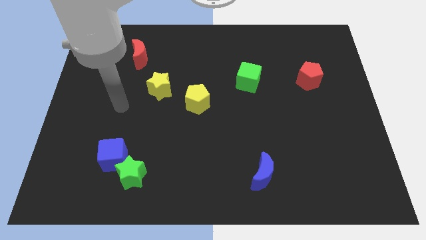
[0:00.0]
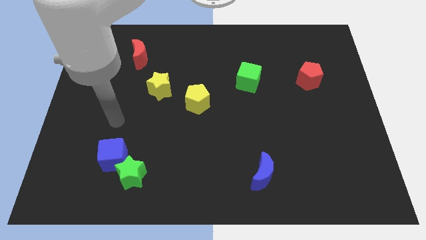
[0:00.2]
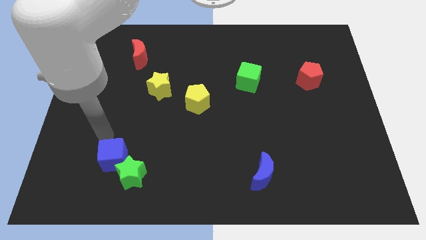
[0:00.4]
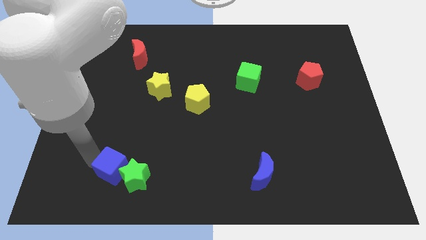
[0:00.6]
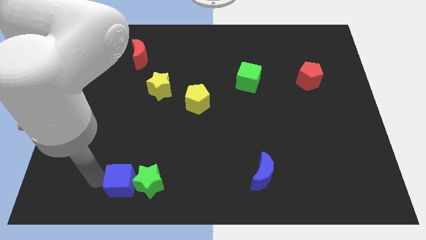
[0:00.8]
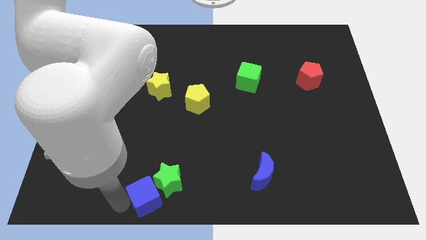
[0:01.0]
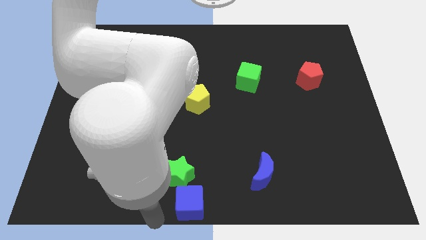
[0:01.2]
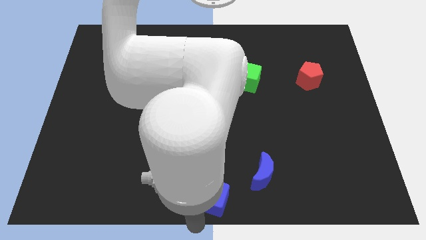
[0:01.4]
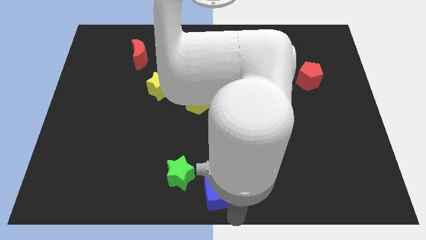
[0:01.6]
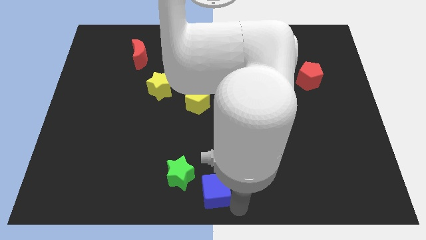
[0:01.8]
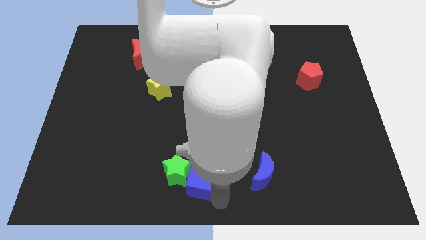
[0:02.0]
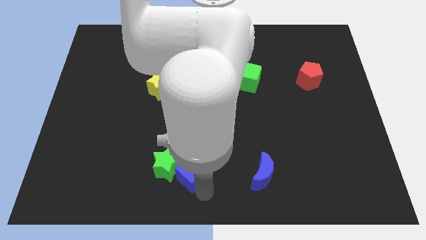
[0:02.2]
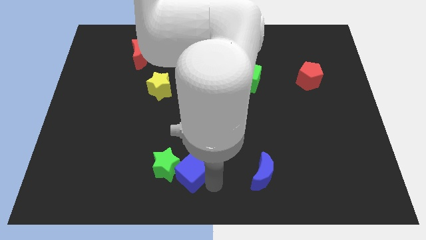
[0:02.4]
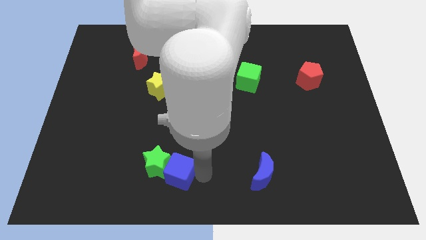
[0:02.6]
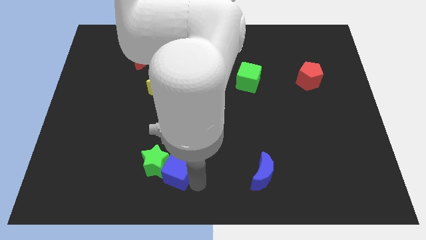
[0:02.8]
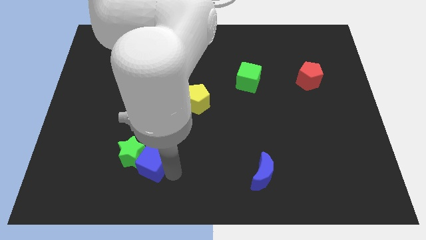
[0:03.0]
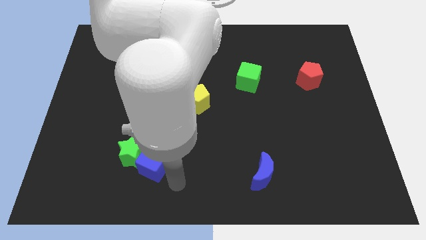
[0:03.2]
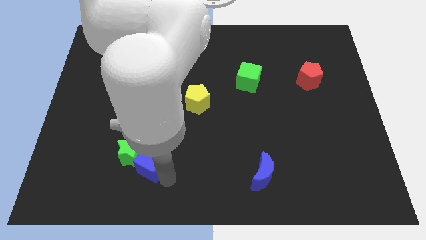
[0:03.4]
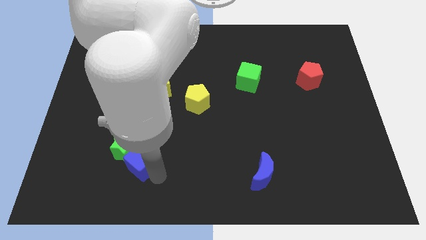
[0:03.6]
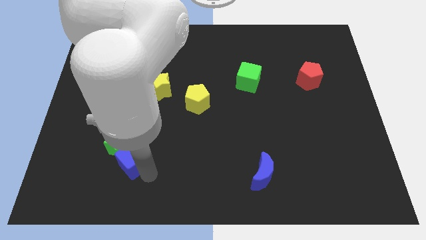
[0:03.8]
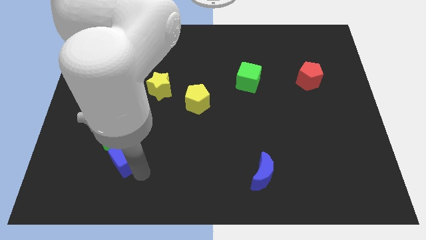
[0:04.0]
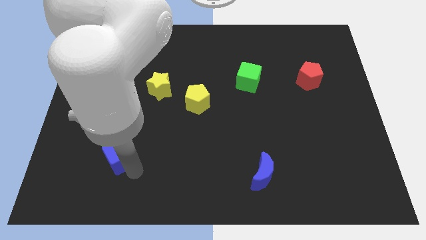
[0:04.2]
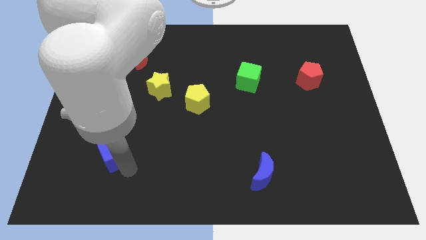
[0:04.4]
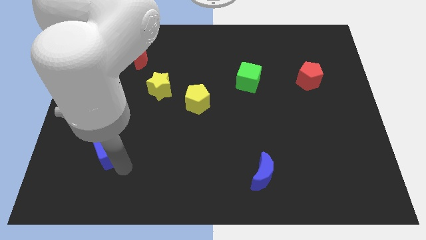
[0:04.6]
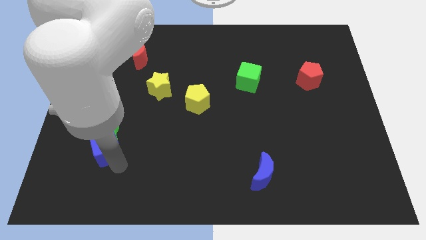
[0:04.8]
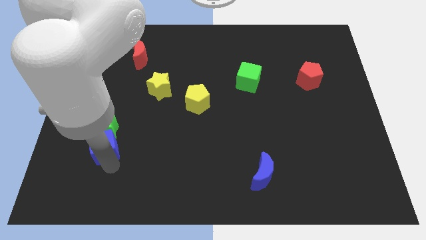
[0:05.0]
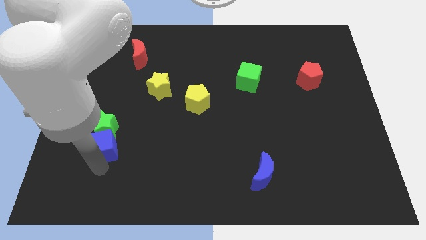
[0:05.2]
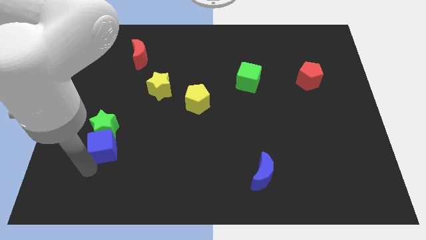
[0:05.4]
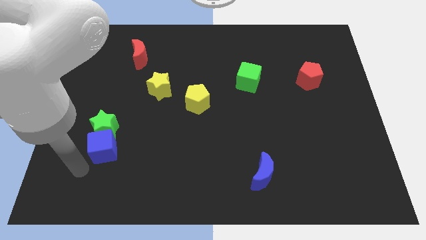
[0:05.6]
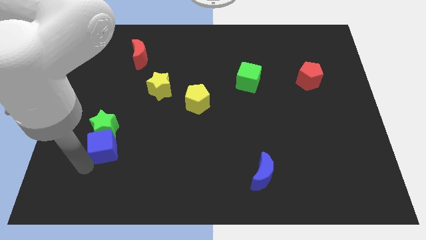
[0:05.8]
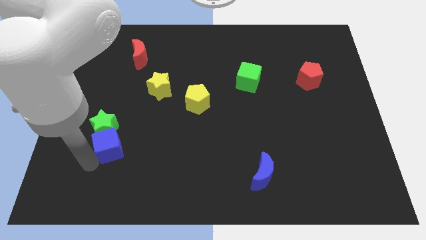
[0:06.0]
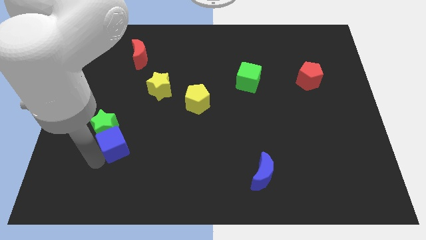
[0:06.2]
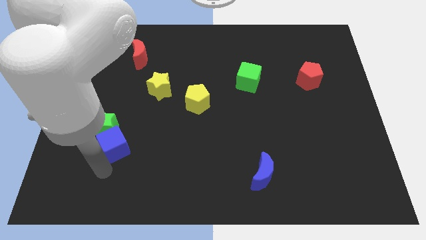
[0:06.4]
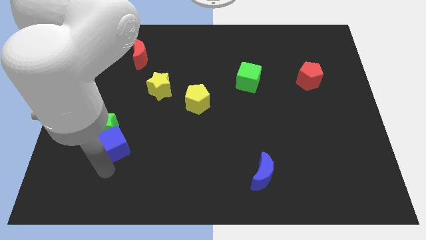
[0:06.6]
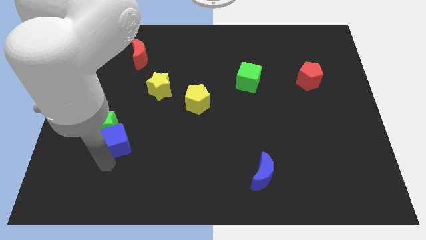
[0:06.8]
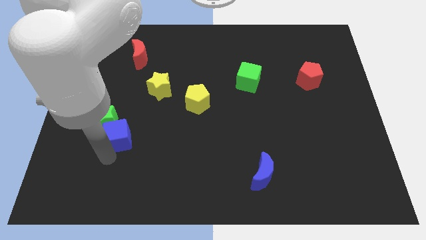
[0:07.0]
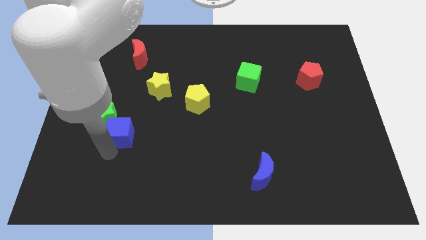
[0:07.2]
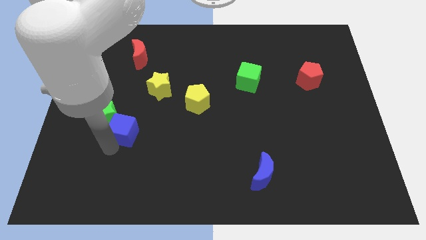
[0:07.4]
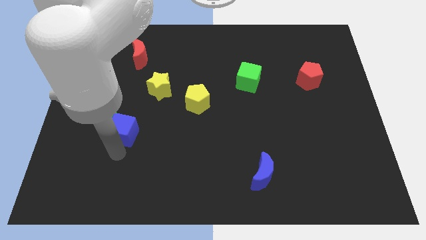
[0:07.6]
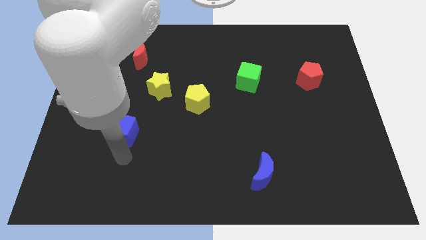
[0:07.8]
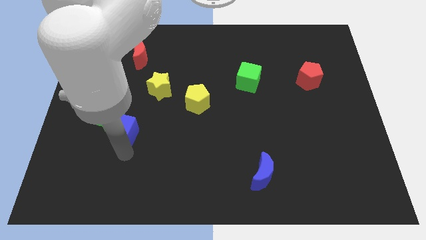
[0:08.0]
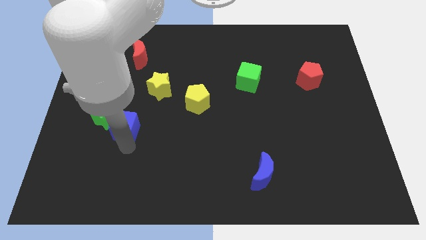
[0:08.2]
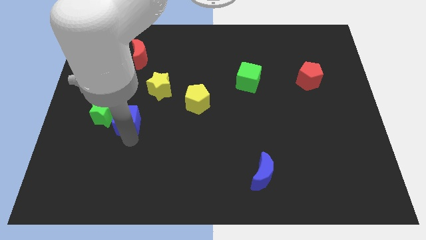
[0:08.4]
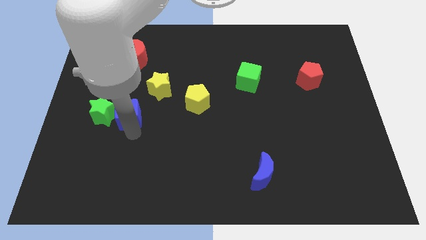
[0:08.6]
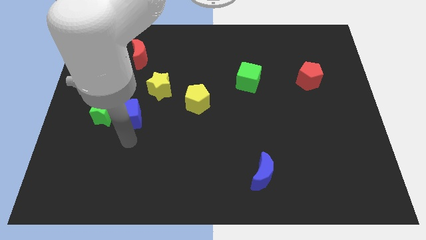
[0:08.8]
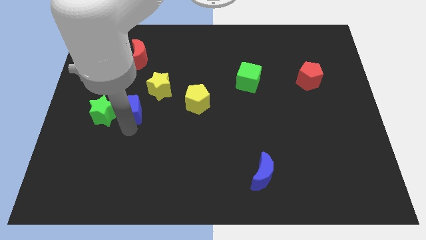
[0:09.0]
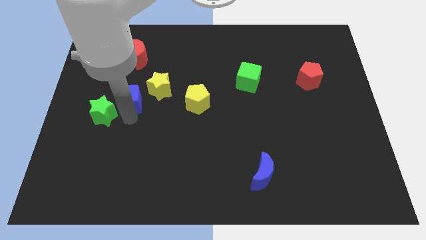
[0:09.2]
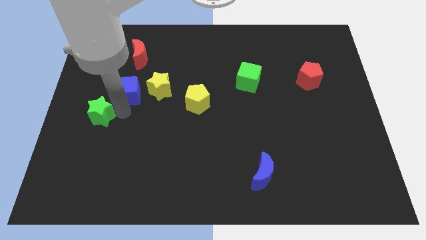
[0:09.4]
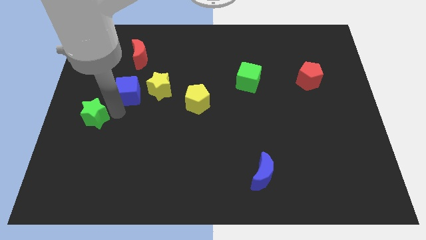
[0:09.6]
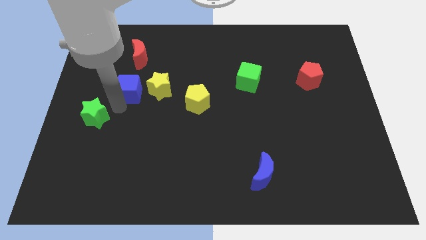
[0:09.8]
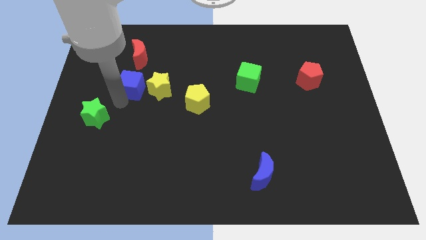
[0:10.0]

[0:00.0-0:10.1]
slide the blue cube diagonally up and to the left of the yellow star

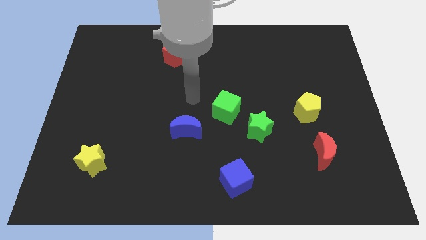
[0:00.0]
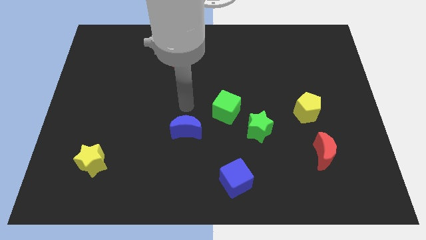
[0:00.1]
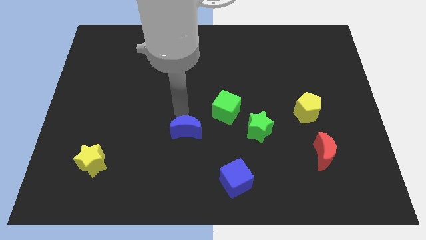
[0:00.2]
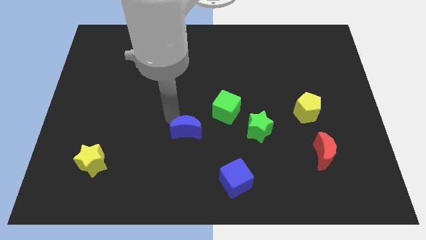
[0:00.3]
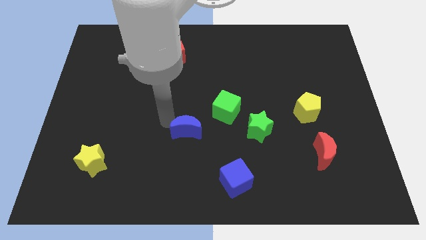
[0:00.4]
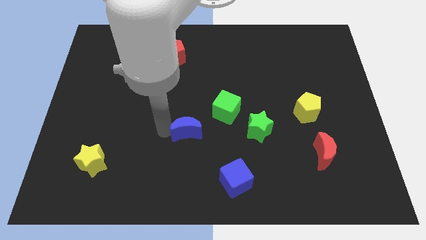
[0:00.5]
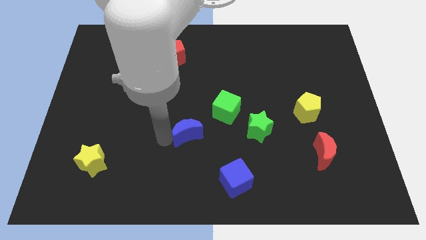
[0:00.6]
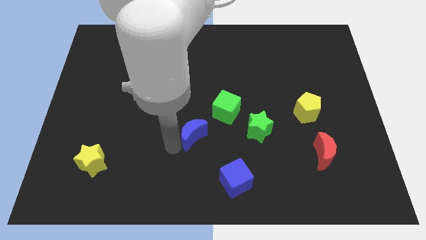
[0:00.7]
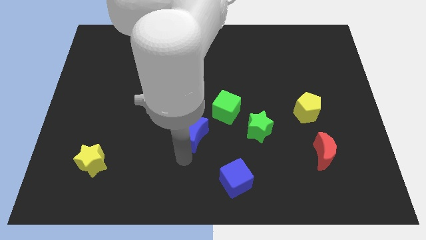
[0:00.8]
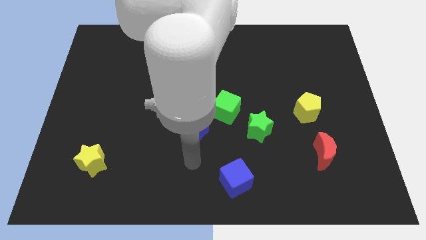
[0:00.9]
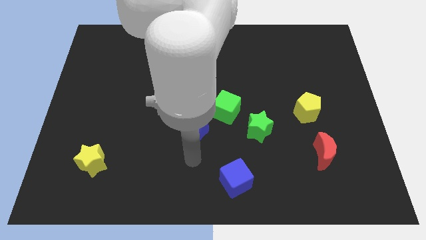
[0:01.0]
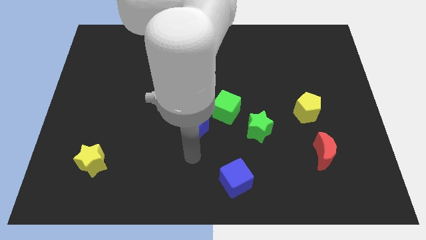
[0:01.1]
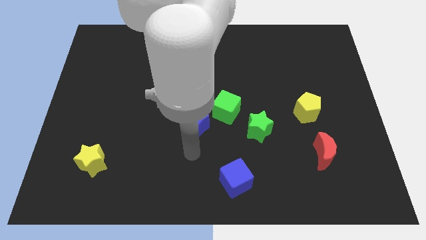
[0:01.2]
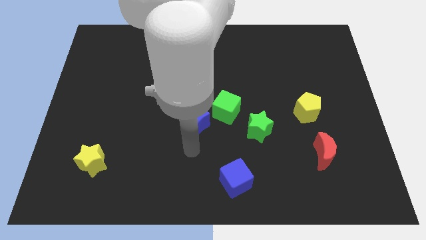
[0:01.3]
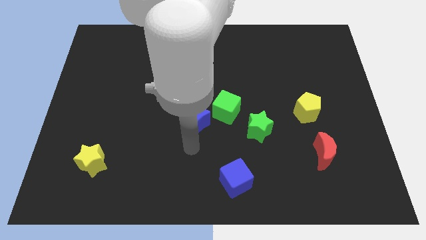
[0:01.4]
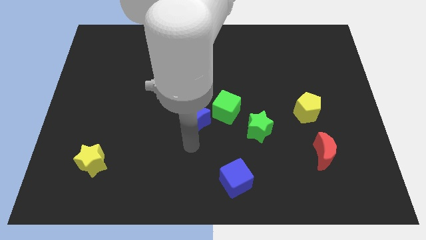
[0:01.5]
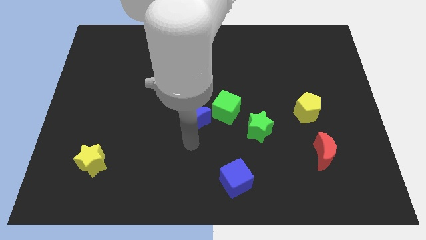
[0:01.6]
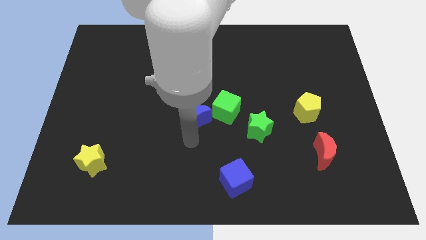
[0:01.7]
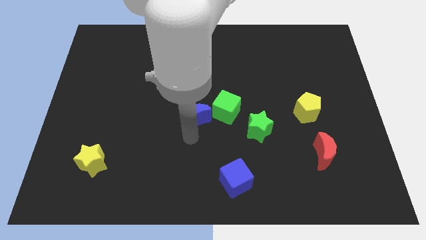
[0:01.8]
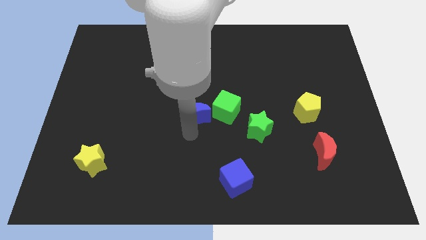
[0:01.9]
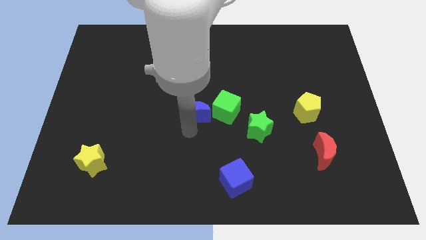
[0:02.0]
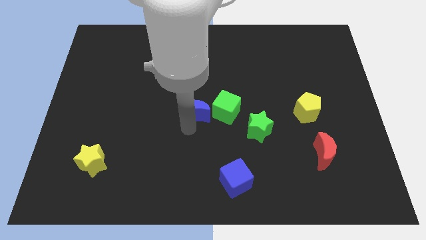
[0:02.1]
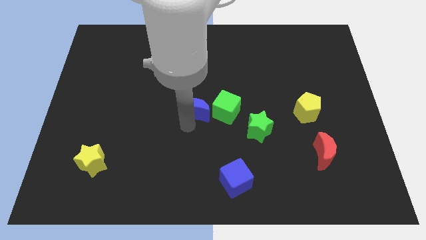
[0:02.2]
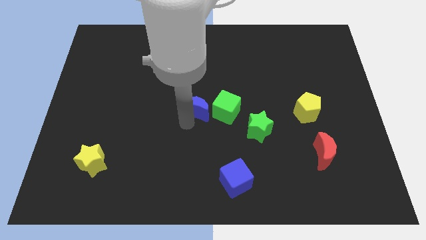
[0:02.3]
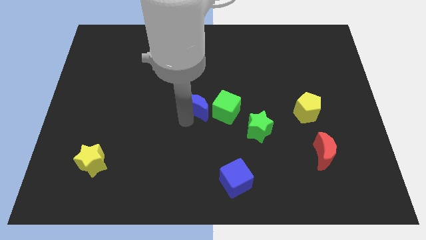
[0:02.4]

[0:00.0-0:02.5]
push the blue moon to the top left of the green cube
